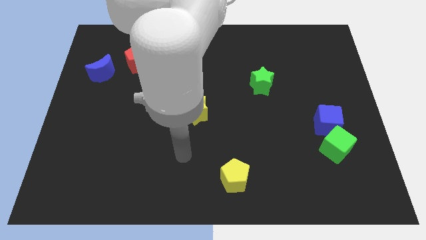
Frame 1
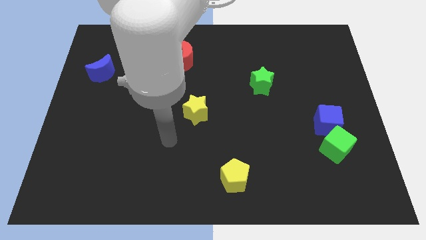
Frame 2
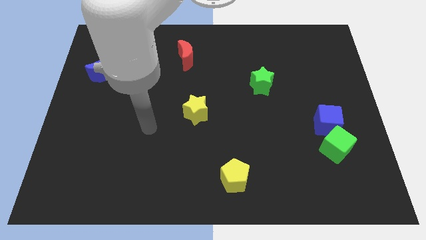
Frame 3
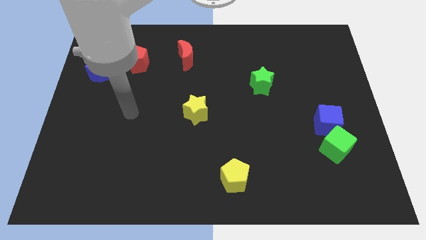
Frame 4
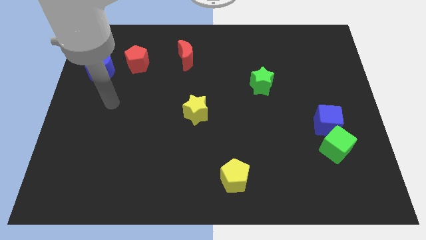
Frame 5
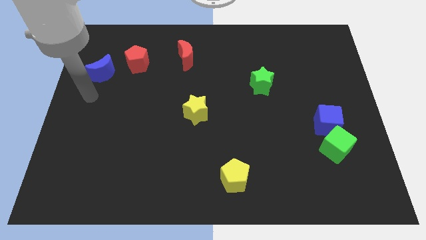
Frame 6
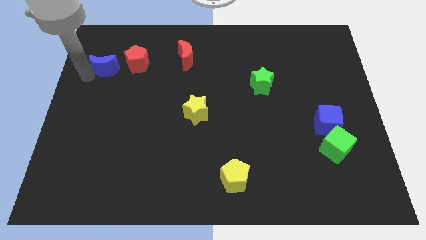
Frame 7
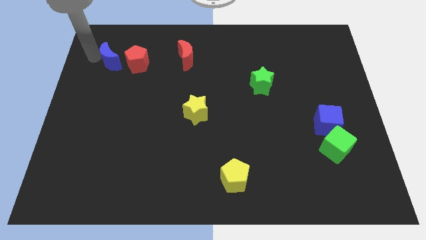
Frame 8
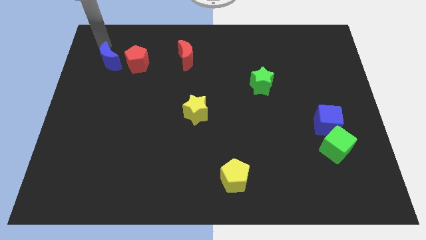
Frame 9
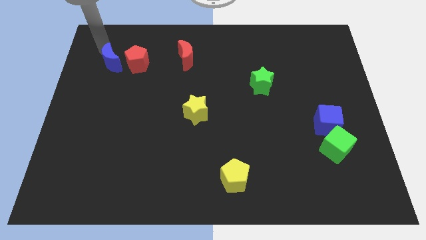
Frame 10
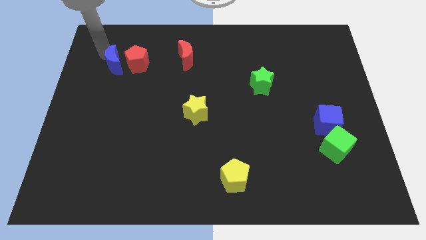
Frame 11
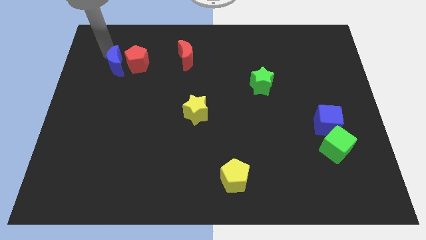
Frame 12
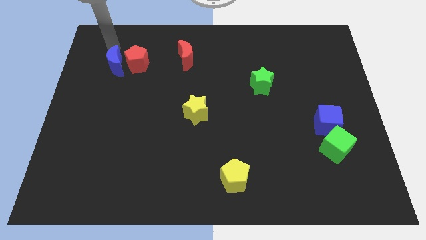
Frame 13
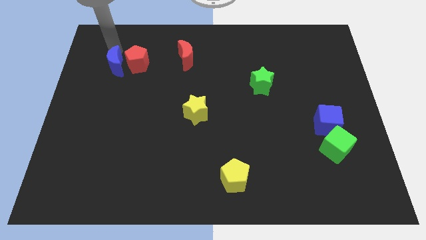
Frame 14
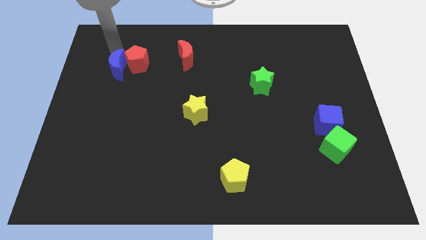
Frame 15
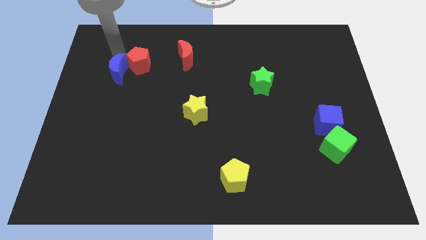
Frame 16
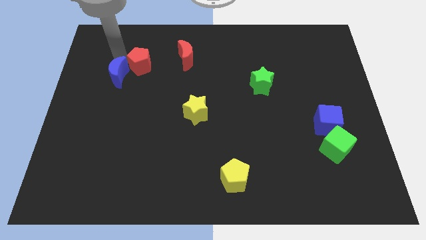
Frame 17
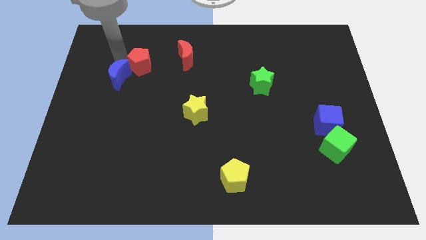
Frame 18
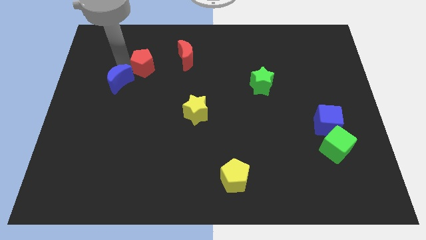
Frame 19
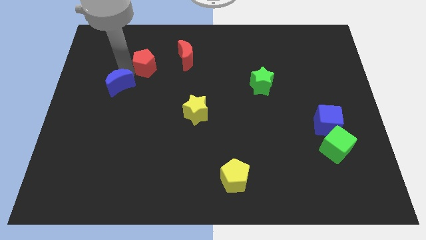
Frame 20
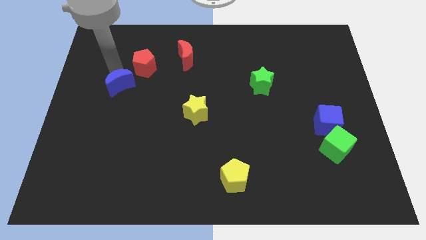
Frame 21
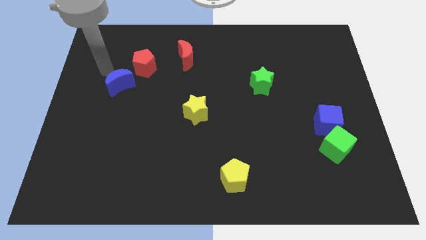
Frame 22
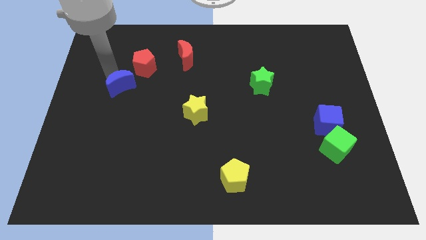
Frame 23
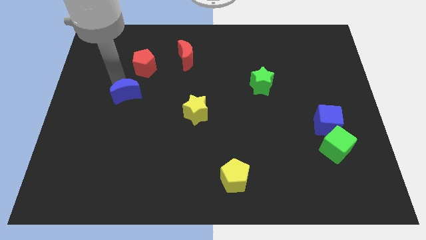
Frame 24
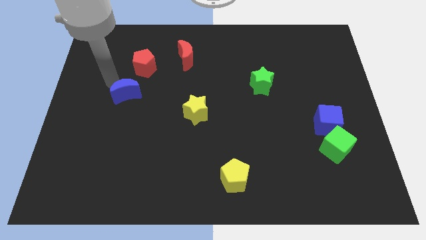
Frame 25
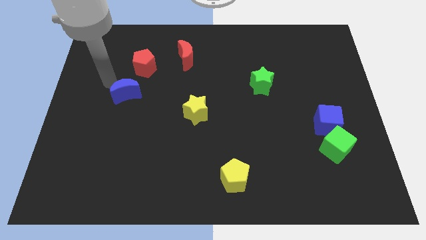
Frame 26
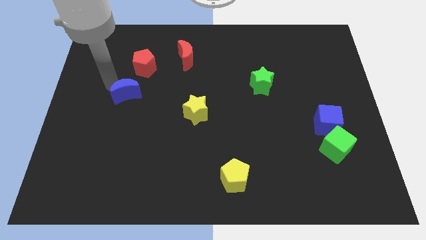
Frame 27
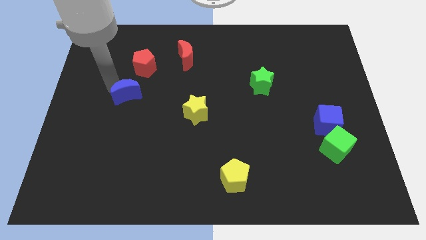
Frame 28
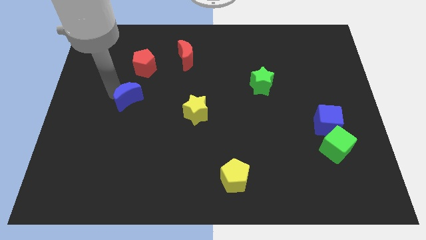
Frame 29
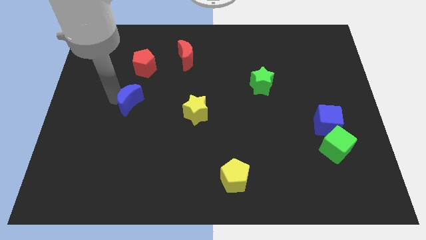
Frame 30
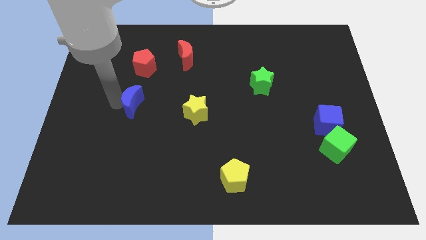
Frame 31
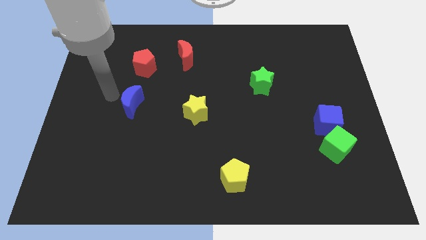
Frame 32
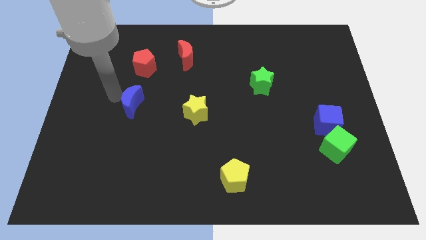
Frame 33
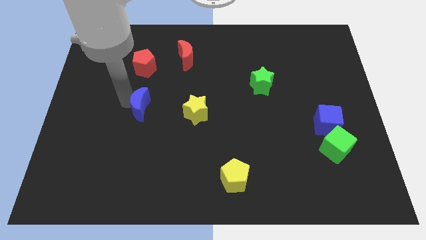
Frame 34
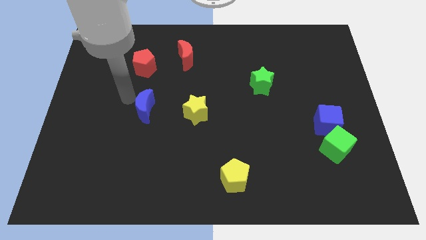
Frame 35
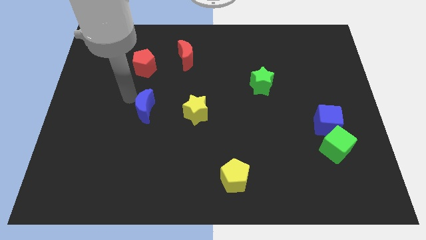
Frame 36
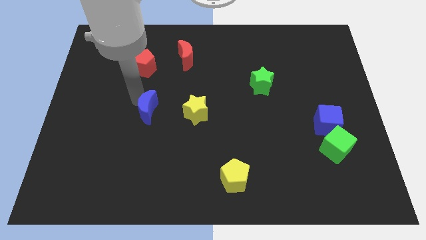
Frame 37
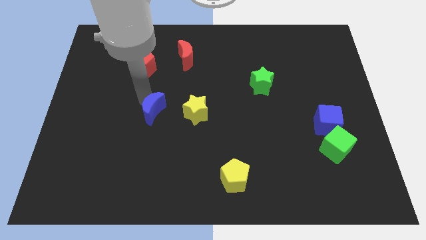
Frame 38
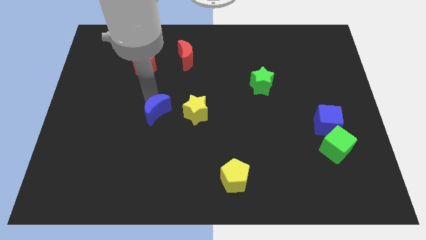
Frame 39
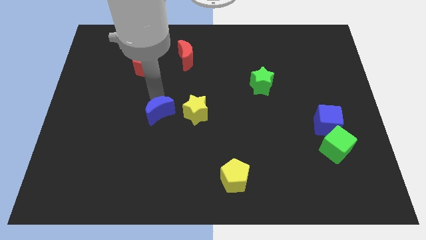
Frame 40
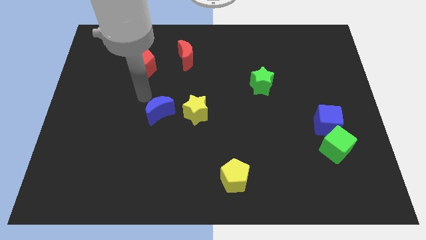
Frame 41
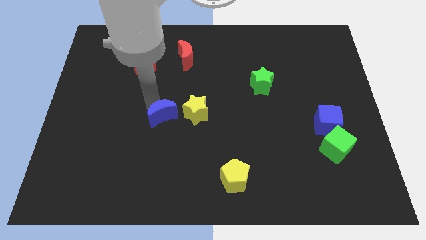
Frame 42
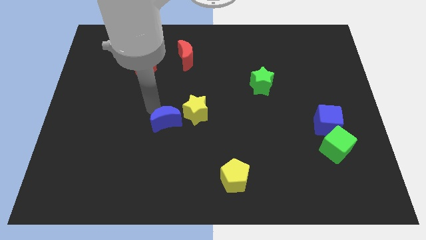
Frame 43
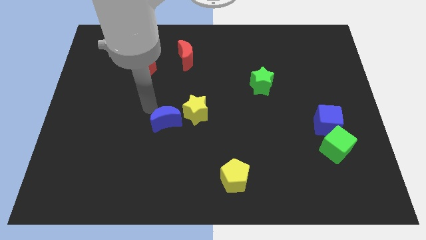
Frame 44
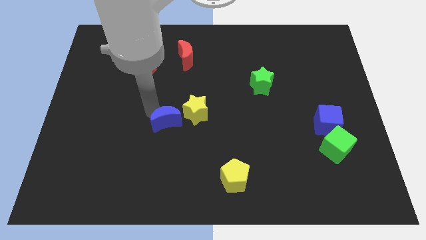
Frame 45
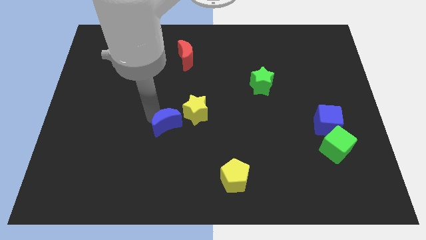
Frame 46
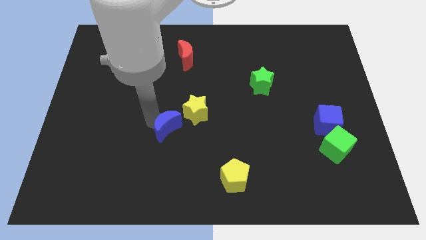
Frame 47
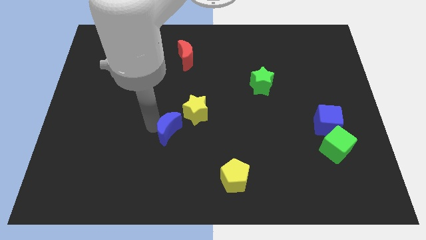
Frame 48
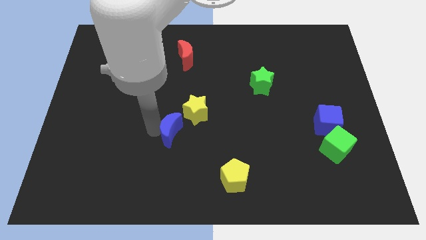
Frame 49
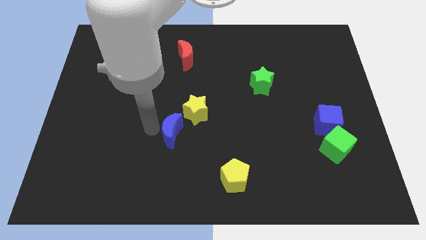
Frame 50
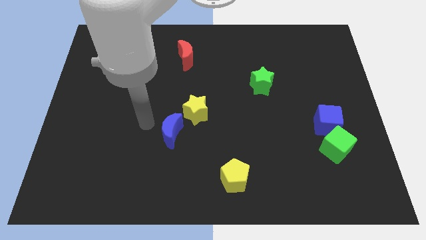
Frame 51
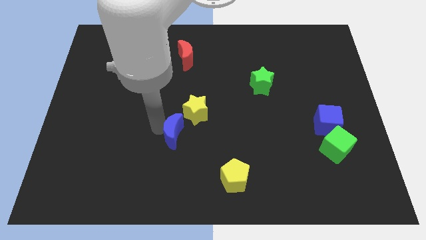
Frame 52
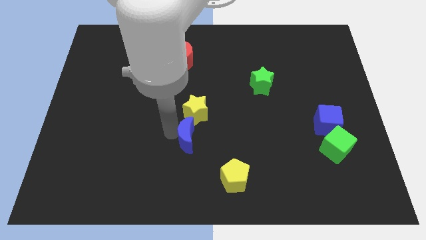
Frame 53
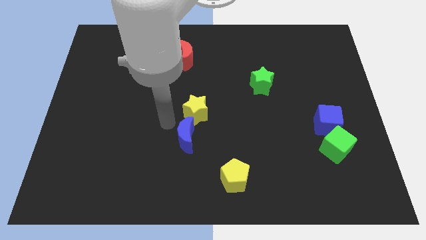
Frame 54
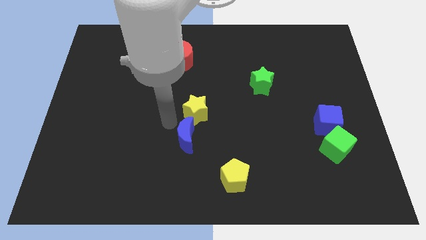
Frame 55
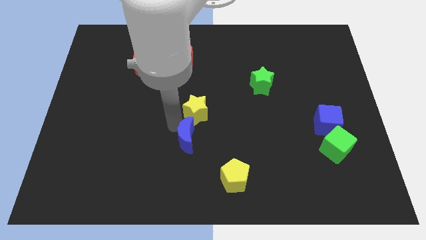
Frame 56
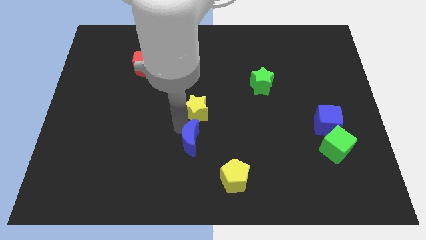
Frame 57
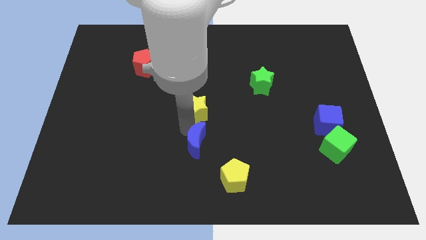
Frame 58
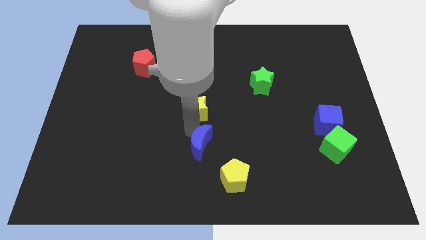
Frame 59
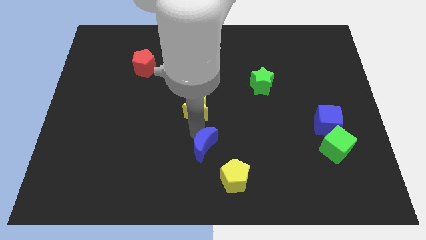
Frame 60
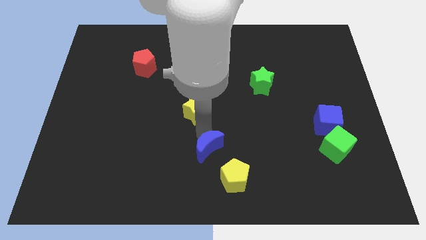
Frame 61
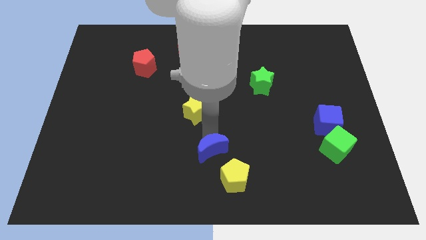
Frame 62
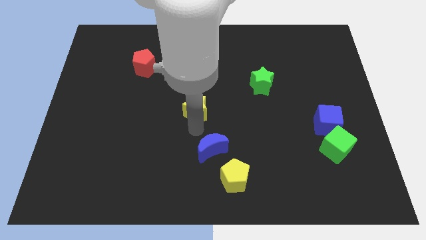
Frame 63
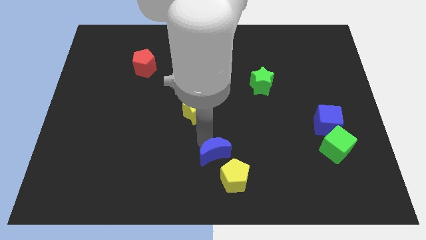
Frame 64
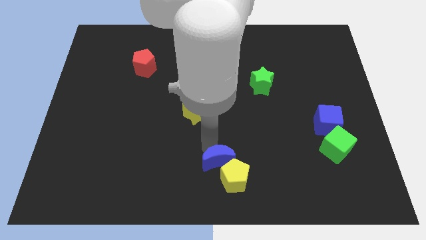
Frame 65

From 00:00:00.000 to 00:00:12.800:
move the blue moon to the yellow pentagon
